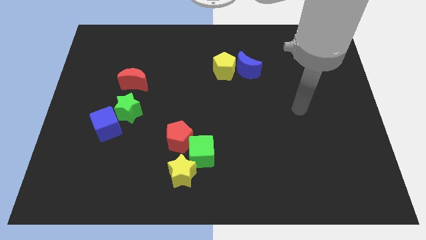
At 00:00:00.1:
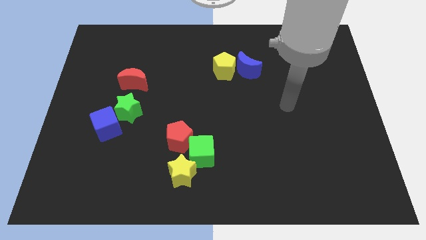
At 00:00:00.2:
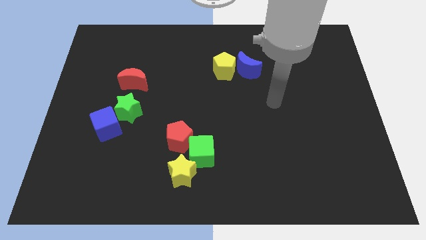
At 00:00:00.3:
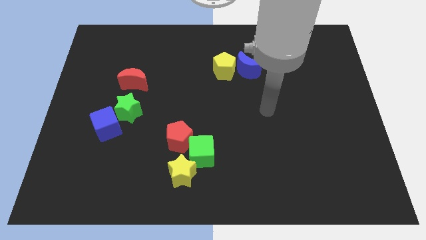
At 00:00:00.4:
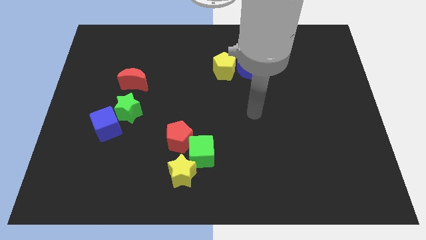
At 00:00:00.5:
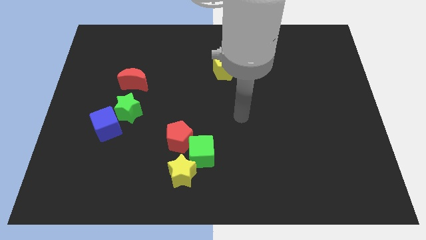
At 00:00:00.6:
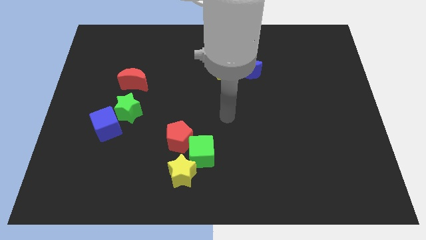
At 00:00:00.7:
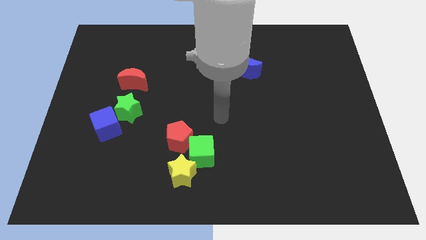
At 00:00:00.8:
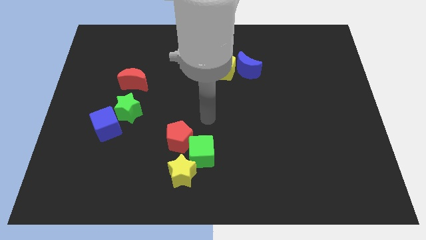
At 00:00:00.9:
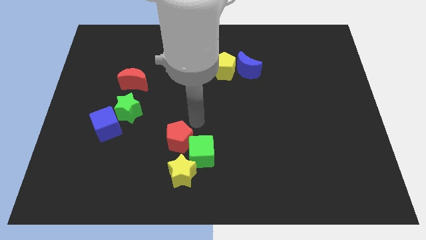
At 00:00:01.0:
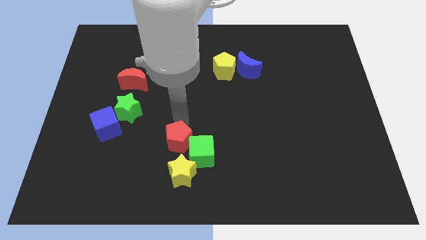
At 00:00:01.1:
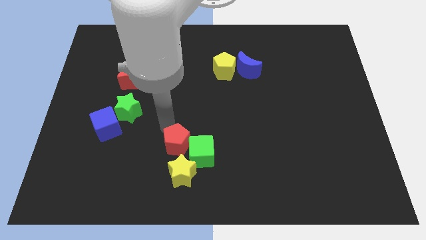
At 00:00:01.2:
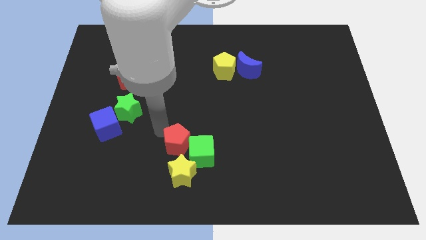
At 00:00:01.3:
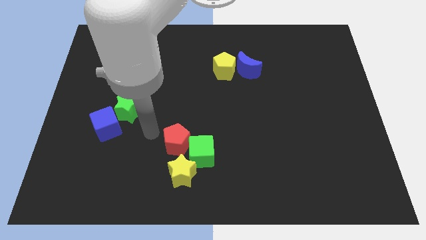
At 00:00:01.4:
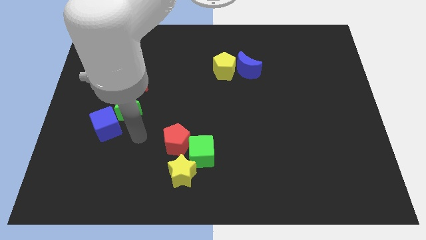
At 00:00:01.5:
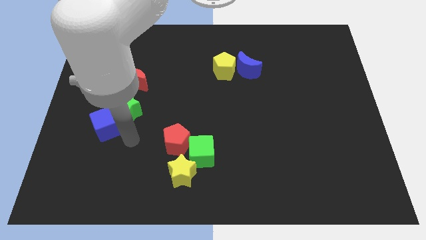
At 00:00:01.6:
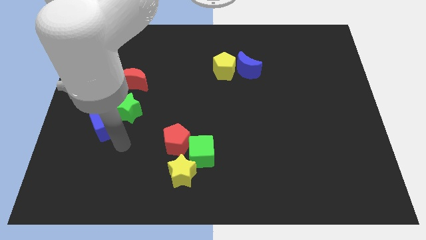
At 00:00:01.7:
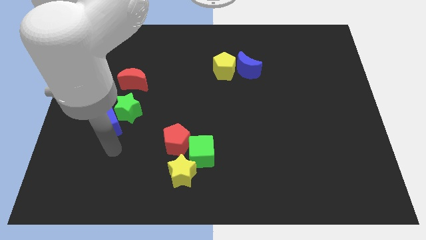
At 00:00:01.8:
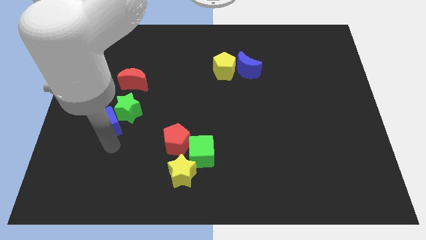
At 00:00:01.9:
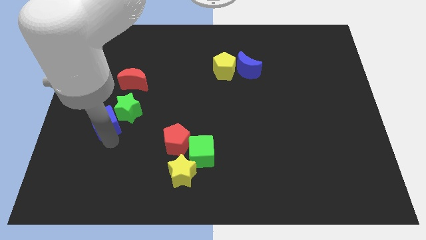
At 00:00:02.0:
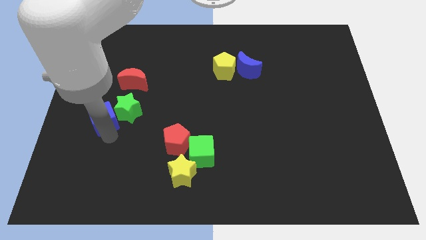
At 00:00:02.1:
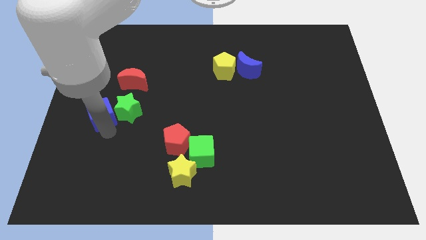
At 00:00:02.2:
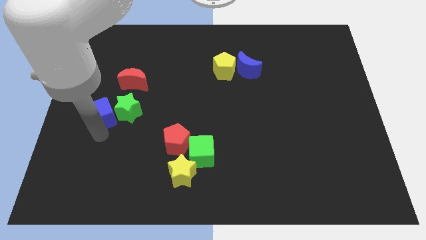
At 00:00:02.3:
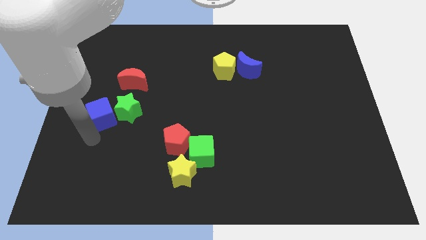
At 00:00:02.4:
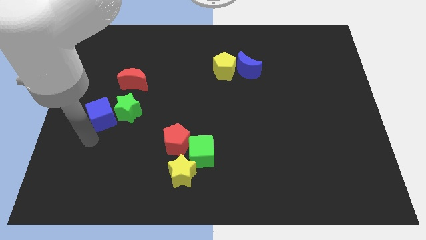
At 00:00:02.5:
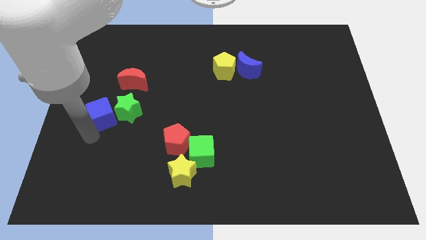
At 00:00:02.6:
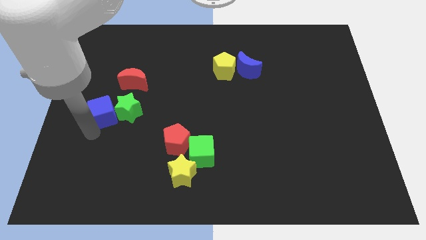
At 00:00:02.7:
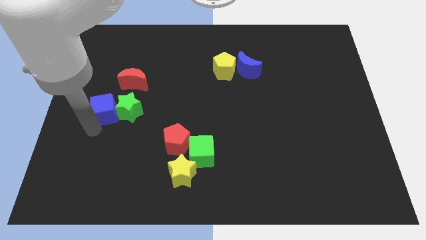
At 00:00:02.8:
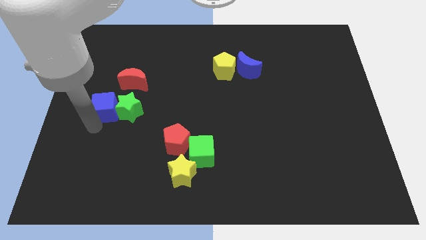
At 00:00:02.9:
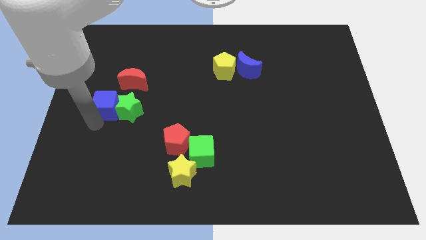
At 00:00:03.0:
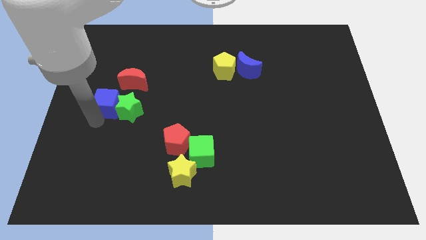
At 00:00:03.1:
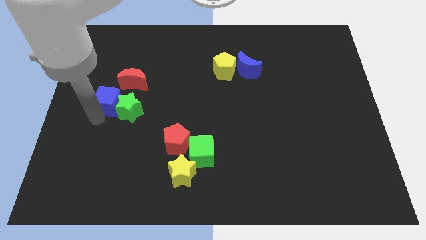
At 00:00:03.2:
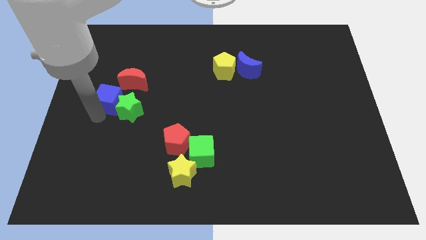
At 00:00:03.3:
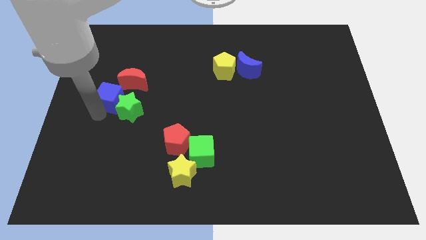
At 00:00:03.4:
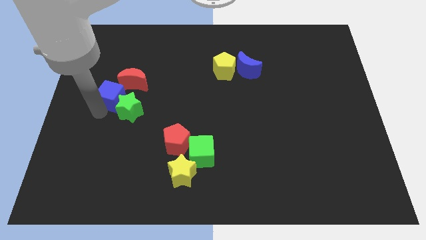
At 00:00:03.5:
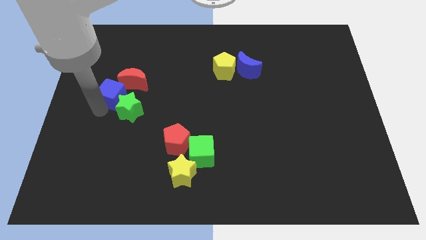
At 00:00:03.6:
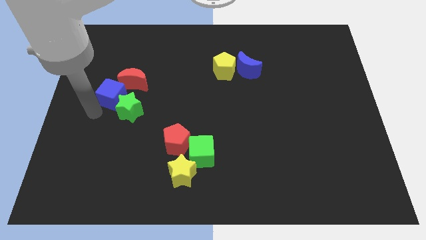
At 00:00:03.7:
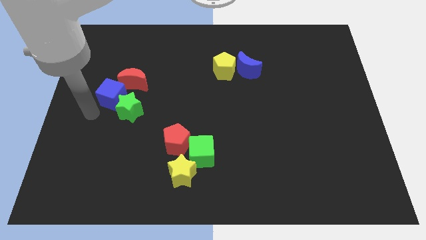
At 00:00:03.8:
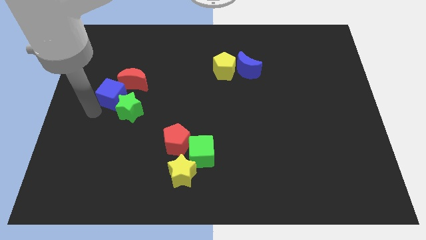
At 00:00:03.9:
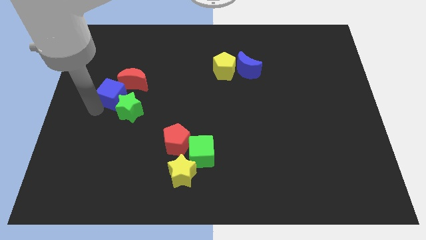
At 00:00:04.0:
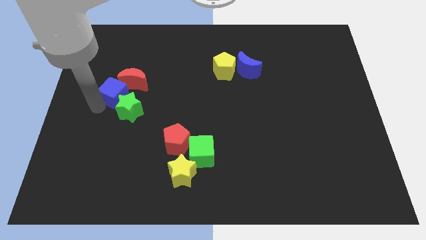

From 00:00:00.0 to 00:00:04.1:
move the blue cube close to the red moon

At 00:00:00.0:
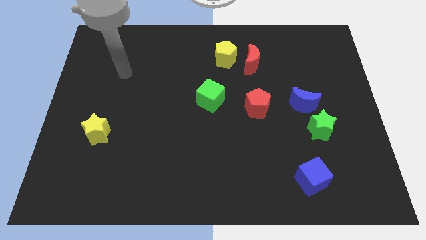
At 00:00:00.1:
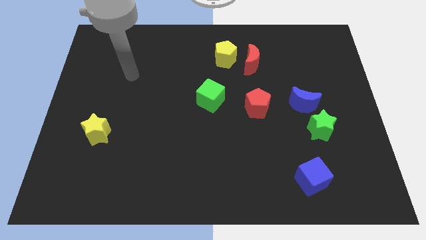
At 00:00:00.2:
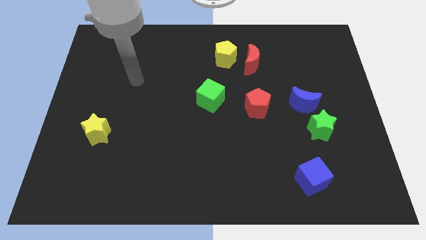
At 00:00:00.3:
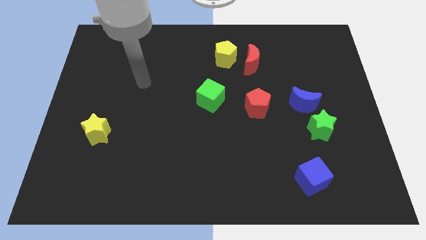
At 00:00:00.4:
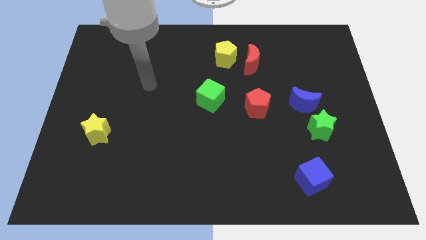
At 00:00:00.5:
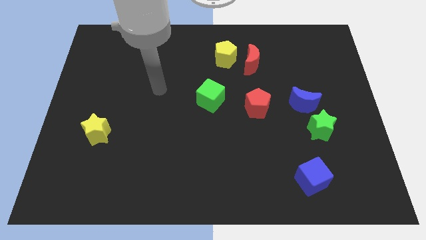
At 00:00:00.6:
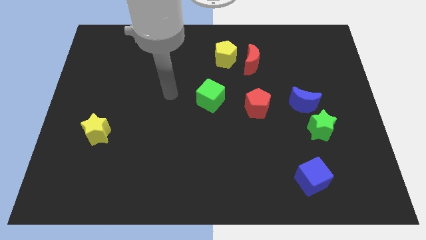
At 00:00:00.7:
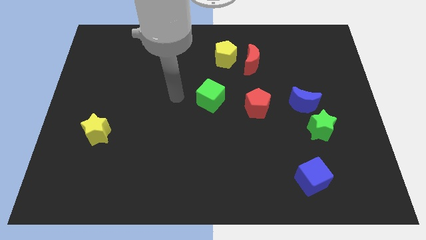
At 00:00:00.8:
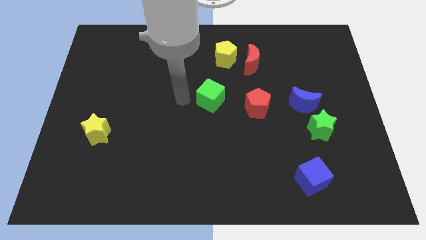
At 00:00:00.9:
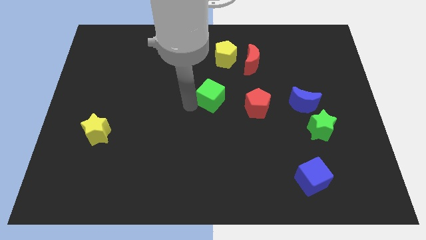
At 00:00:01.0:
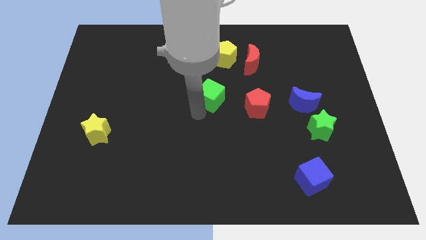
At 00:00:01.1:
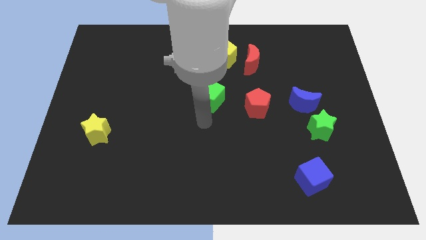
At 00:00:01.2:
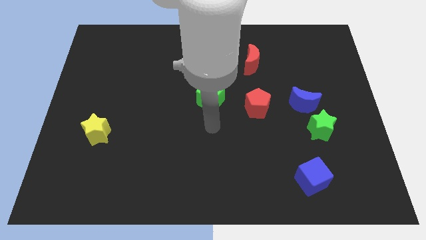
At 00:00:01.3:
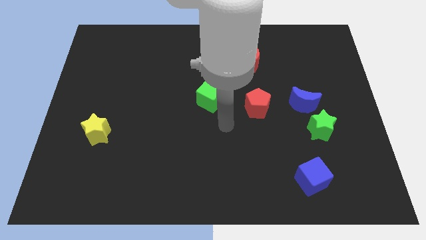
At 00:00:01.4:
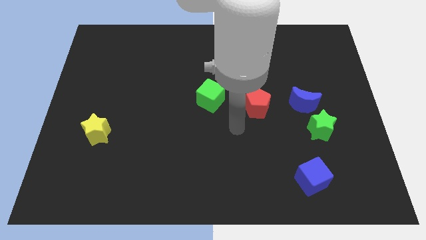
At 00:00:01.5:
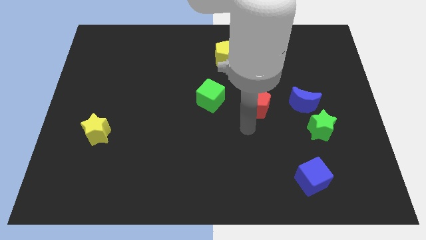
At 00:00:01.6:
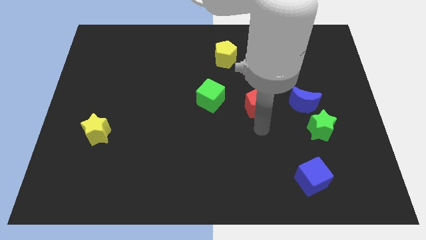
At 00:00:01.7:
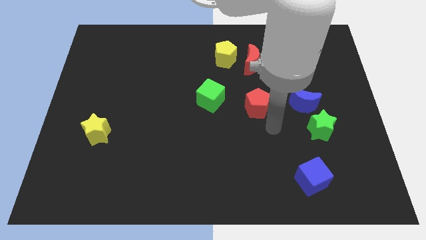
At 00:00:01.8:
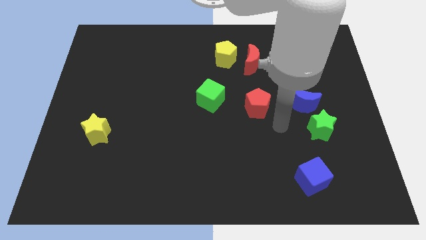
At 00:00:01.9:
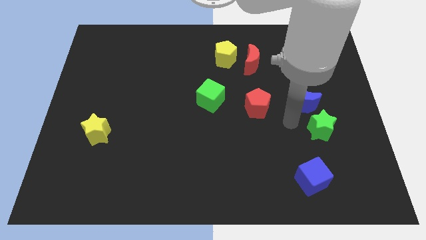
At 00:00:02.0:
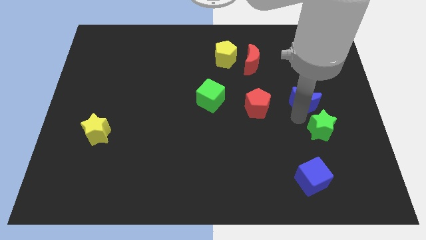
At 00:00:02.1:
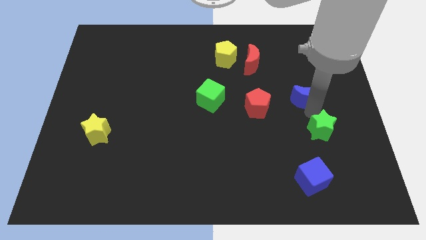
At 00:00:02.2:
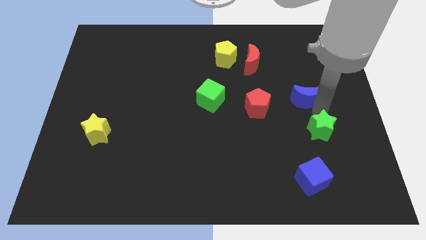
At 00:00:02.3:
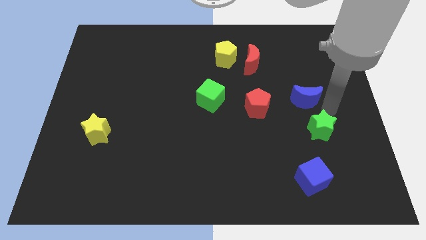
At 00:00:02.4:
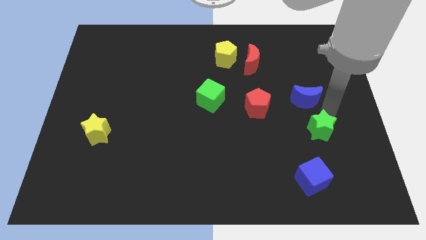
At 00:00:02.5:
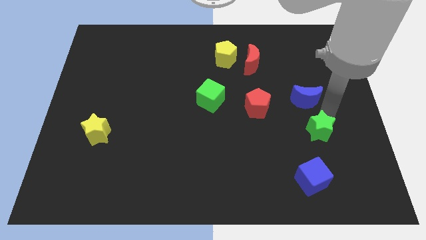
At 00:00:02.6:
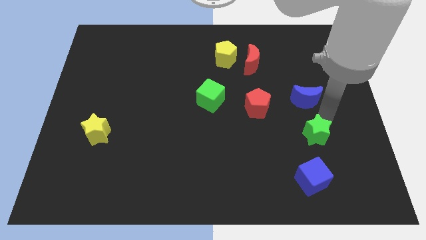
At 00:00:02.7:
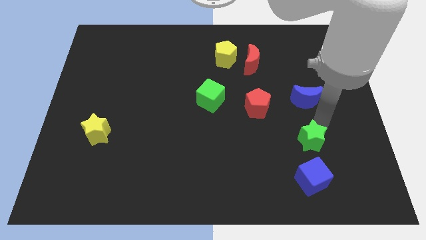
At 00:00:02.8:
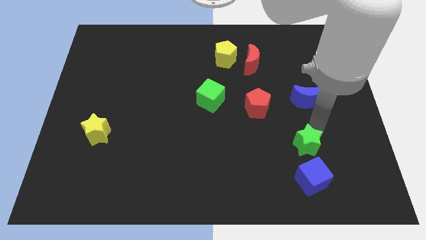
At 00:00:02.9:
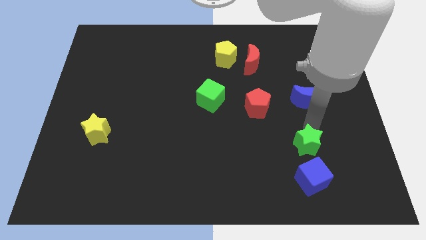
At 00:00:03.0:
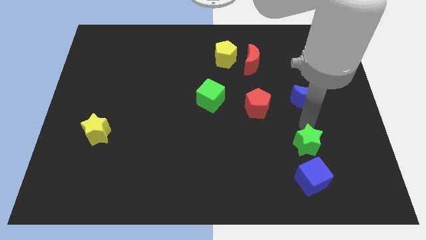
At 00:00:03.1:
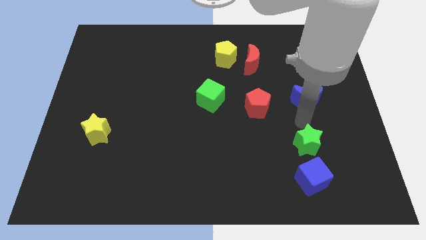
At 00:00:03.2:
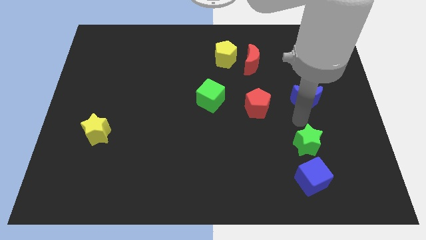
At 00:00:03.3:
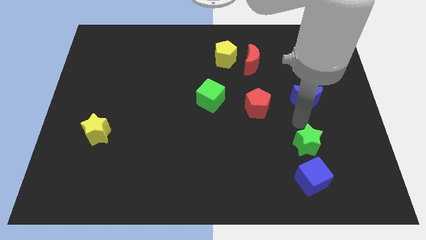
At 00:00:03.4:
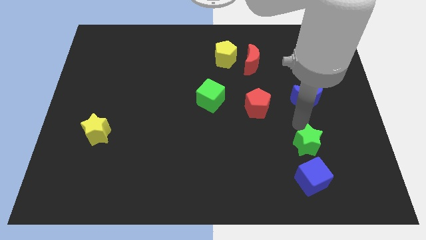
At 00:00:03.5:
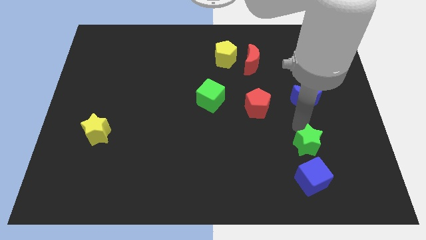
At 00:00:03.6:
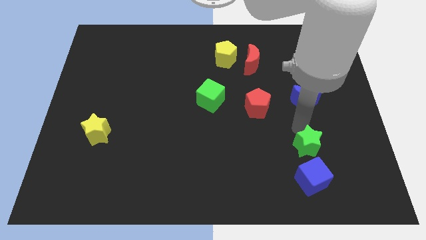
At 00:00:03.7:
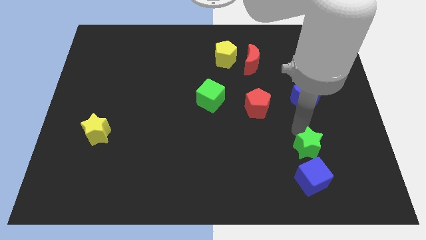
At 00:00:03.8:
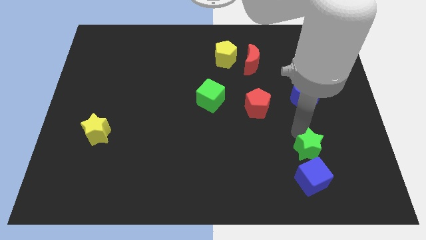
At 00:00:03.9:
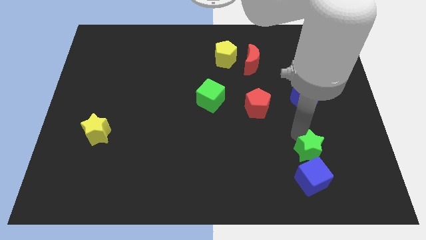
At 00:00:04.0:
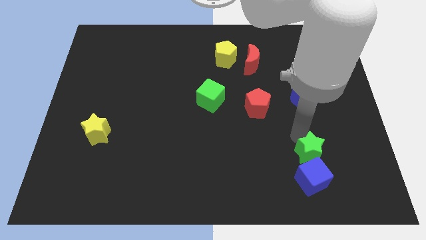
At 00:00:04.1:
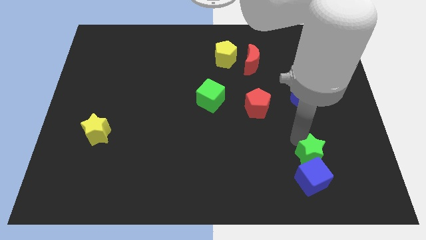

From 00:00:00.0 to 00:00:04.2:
move the green star close to the blue cube

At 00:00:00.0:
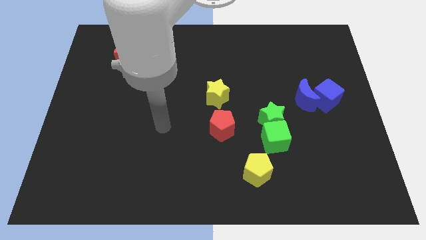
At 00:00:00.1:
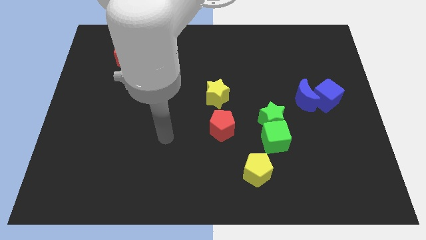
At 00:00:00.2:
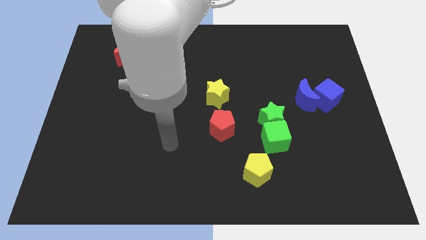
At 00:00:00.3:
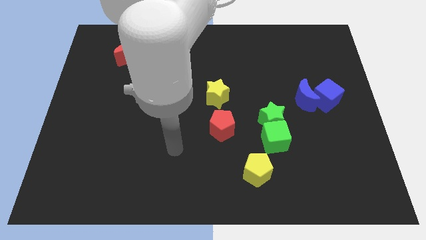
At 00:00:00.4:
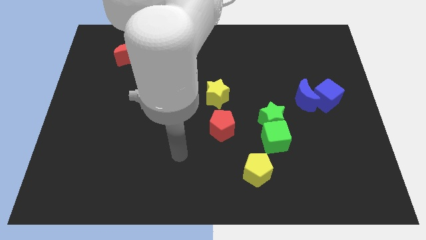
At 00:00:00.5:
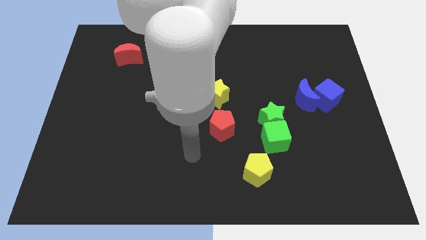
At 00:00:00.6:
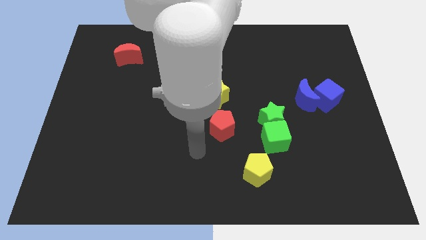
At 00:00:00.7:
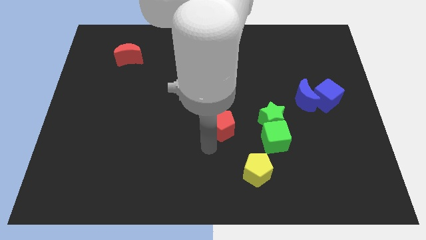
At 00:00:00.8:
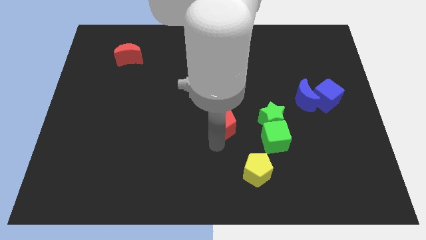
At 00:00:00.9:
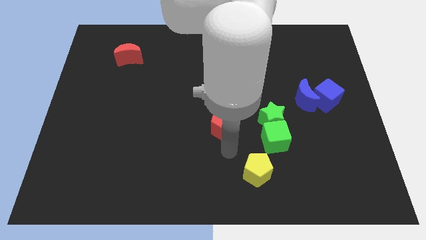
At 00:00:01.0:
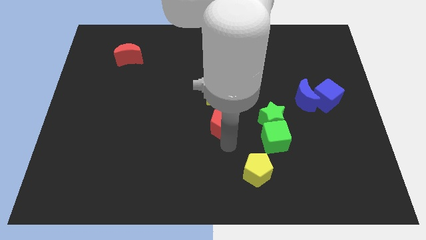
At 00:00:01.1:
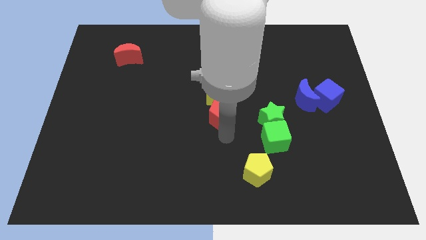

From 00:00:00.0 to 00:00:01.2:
push the red pentagon close to the yellow star
